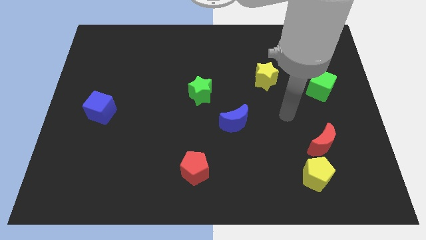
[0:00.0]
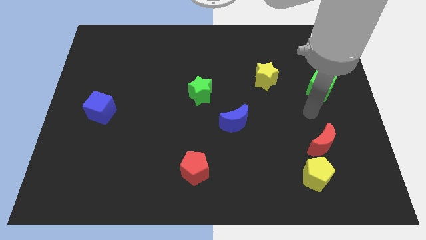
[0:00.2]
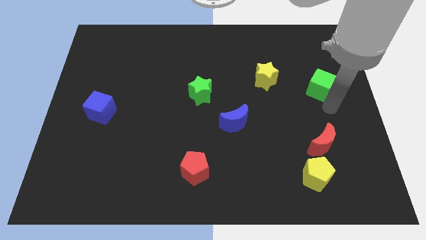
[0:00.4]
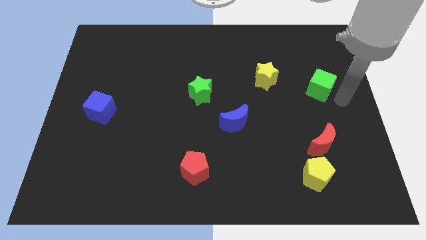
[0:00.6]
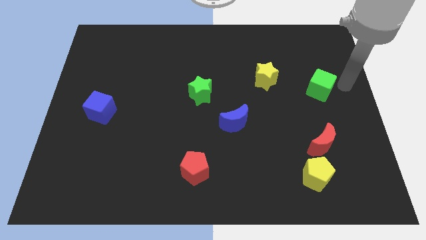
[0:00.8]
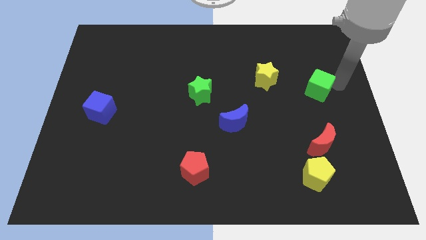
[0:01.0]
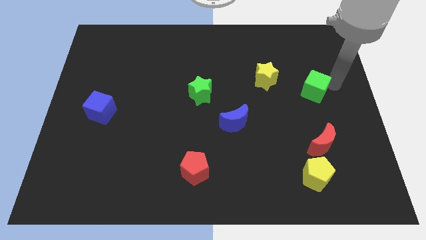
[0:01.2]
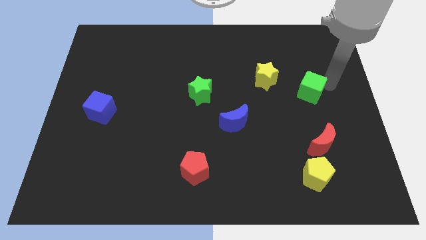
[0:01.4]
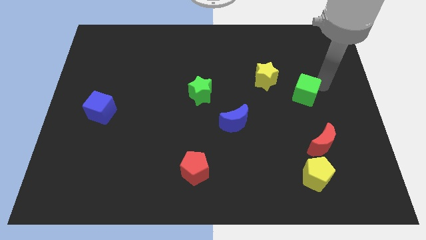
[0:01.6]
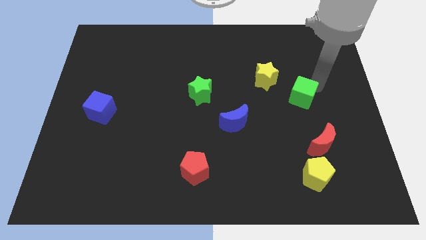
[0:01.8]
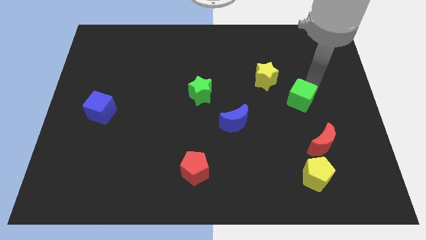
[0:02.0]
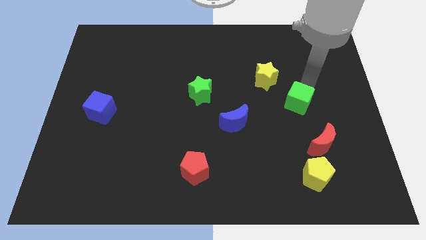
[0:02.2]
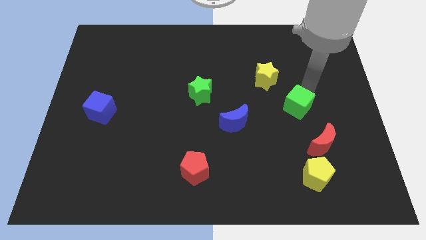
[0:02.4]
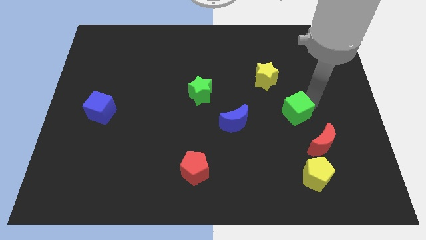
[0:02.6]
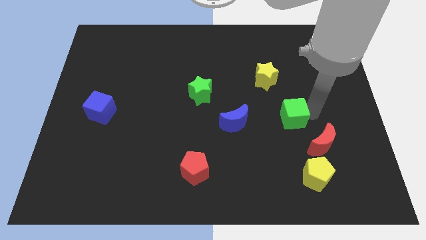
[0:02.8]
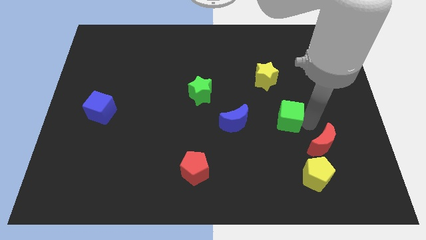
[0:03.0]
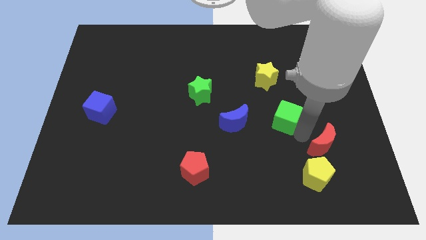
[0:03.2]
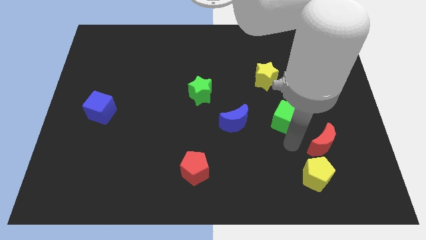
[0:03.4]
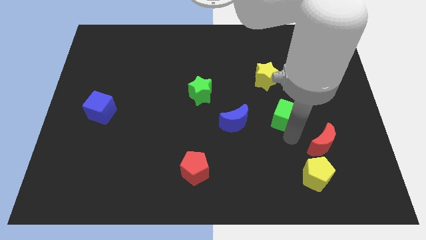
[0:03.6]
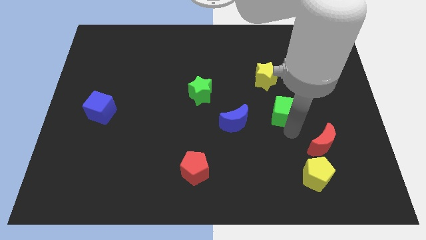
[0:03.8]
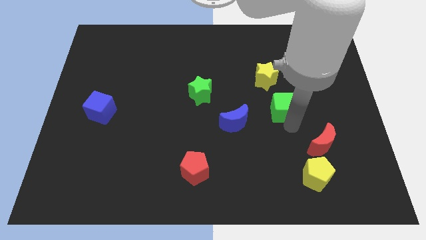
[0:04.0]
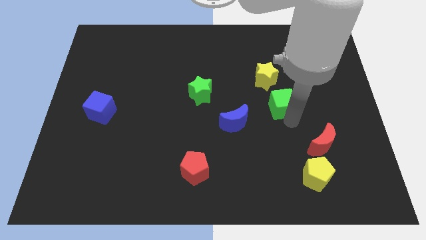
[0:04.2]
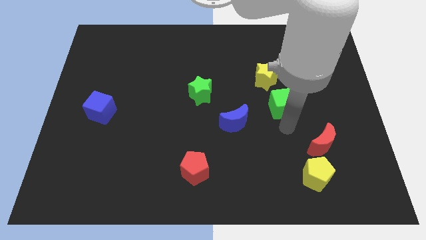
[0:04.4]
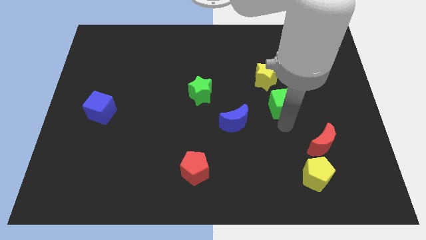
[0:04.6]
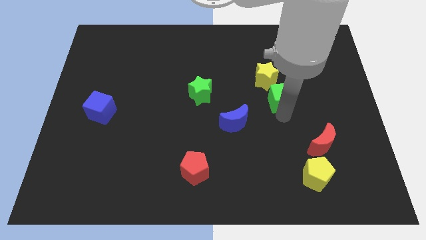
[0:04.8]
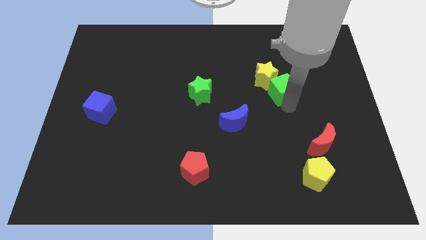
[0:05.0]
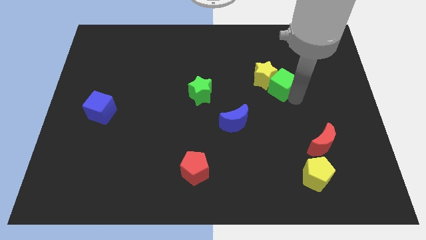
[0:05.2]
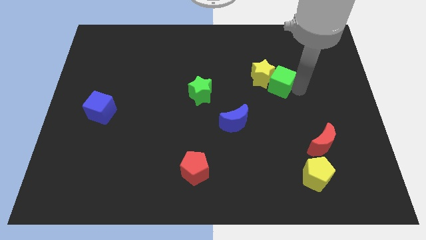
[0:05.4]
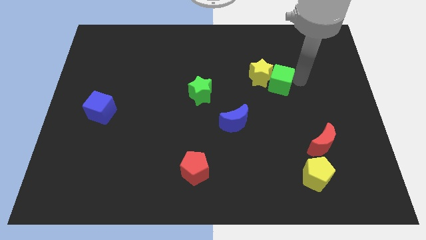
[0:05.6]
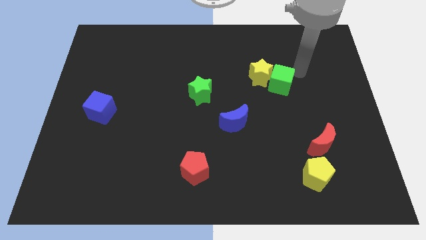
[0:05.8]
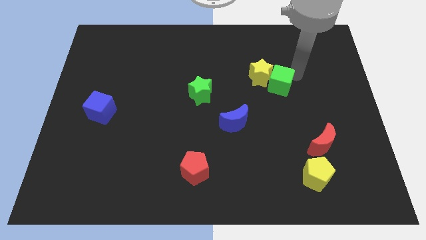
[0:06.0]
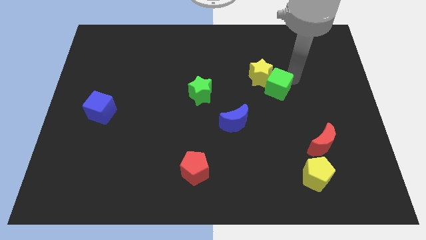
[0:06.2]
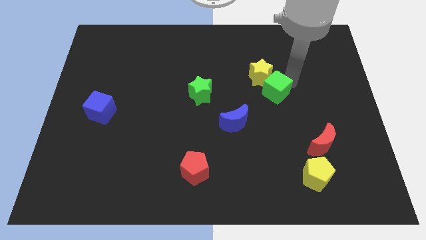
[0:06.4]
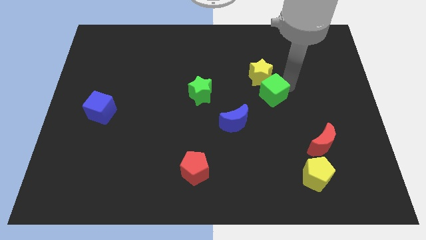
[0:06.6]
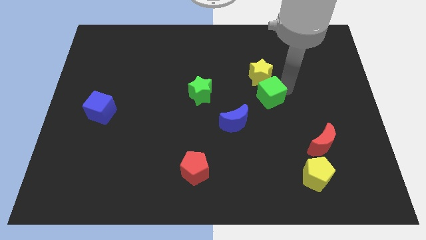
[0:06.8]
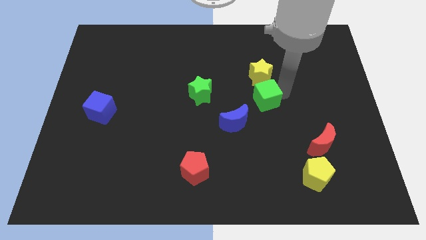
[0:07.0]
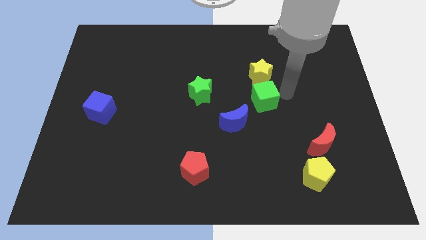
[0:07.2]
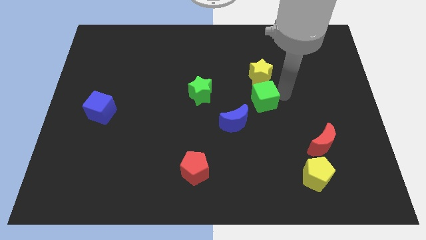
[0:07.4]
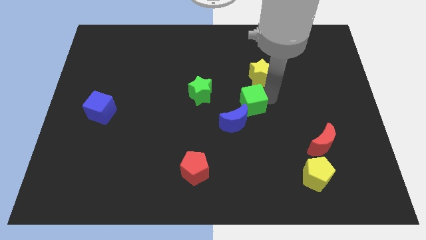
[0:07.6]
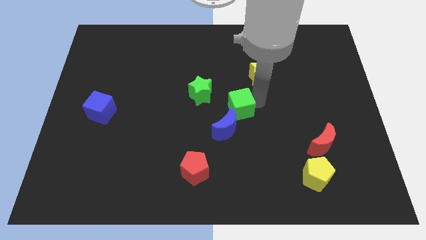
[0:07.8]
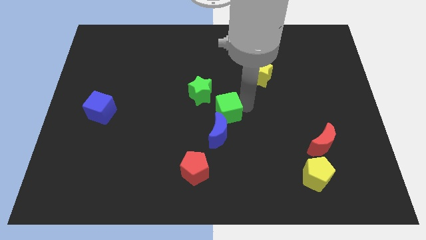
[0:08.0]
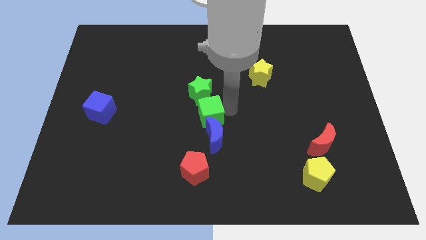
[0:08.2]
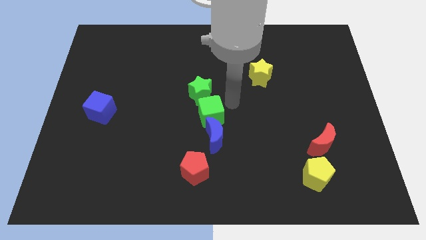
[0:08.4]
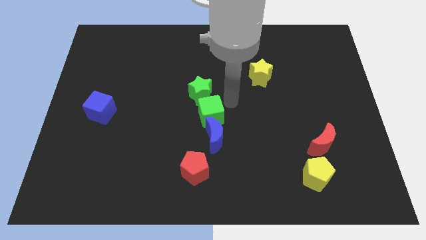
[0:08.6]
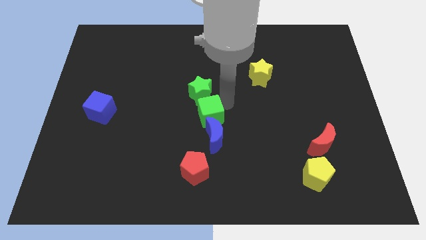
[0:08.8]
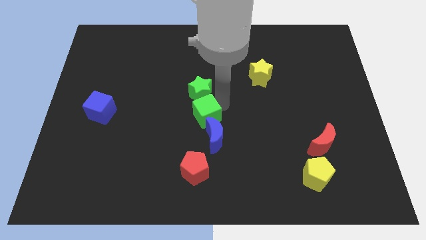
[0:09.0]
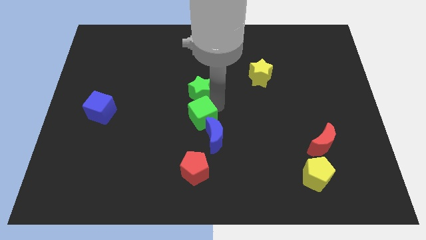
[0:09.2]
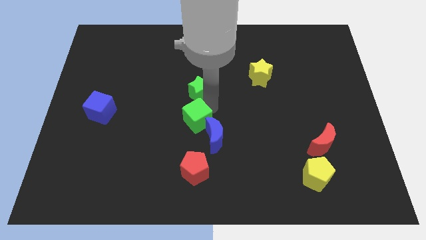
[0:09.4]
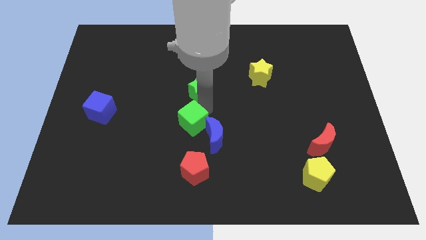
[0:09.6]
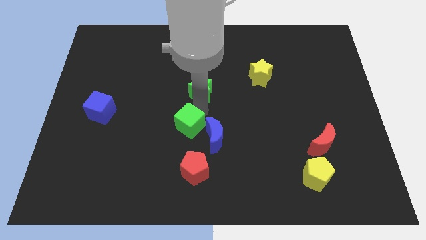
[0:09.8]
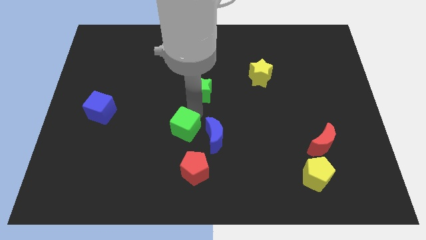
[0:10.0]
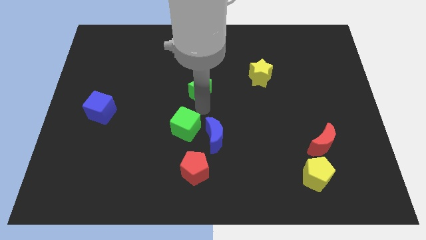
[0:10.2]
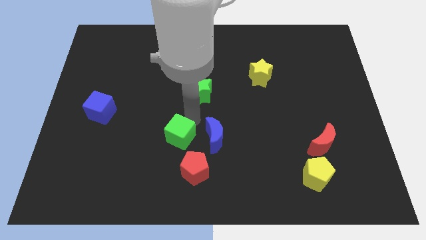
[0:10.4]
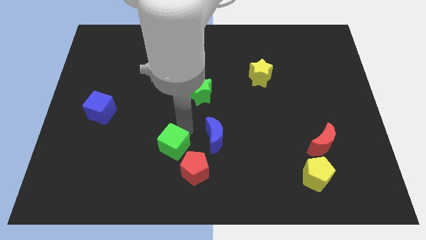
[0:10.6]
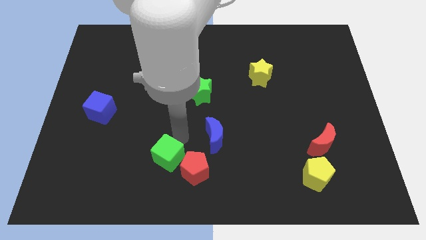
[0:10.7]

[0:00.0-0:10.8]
push the green cube left of the red pentagon

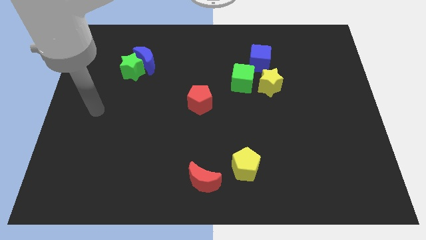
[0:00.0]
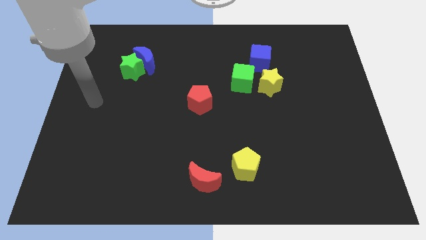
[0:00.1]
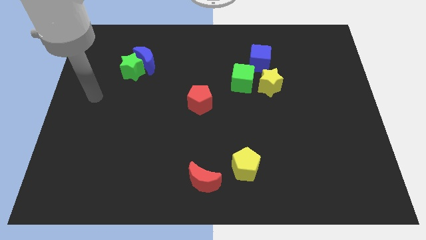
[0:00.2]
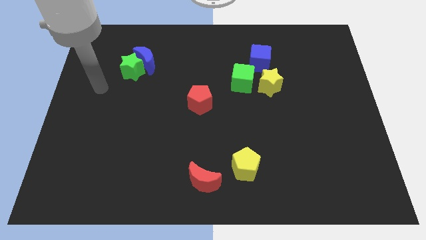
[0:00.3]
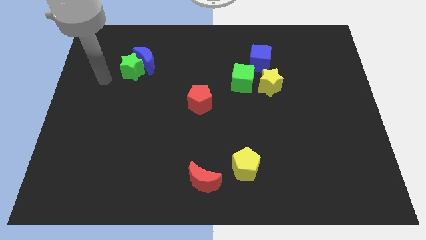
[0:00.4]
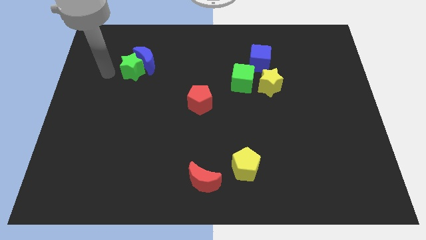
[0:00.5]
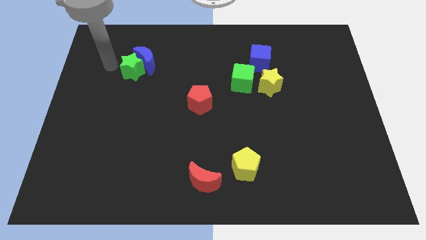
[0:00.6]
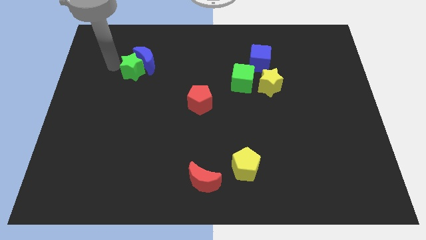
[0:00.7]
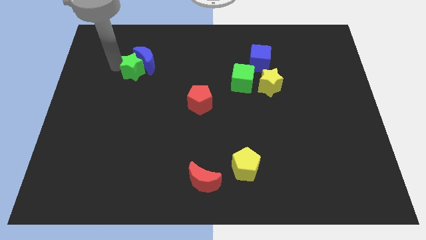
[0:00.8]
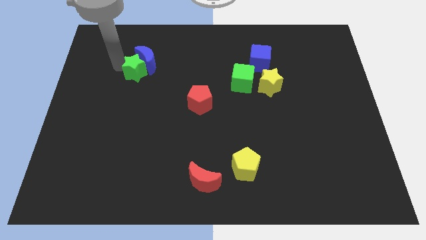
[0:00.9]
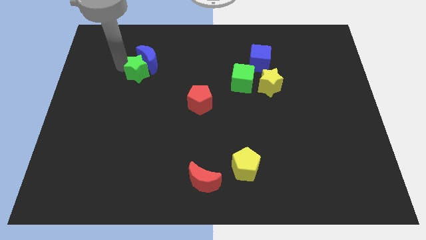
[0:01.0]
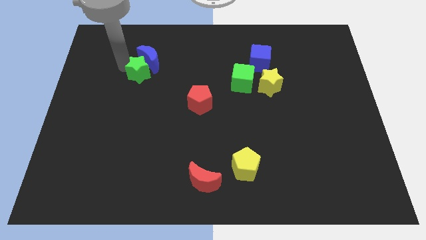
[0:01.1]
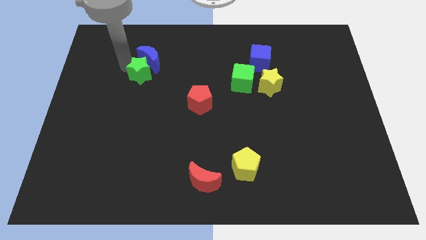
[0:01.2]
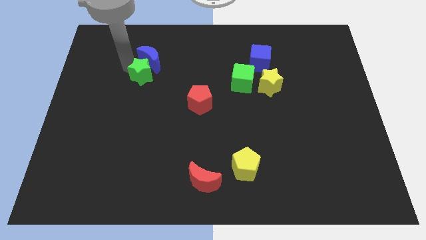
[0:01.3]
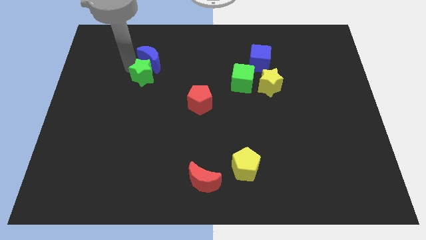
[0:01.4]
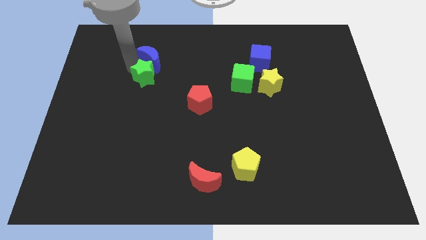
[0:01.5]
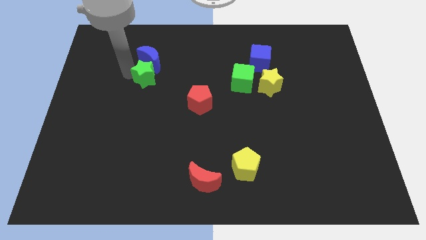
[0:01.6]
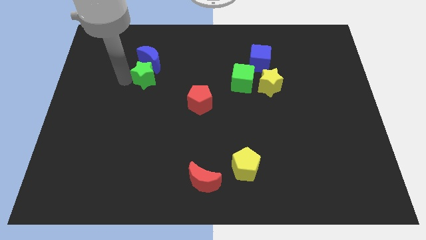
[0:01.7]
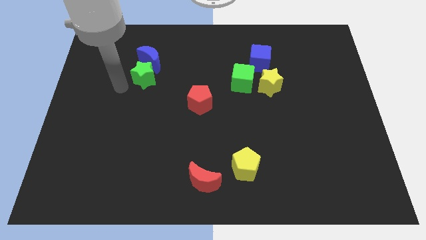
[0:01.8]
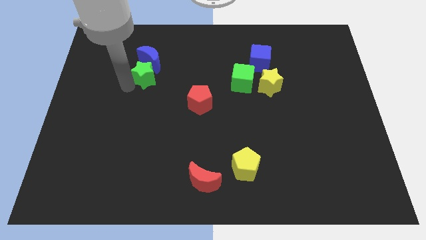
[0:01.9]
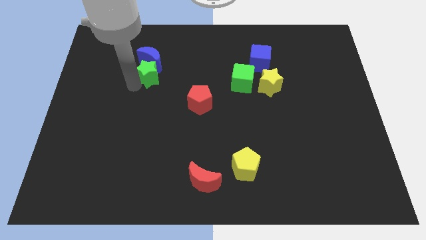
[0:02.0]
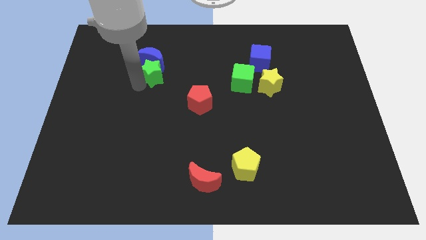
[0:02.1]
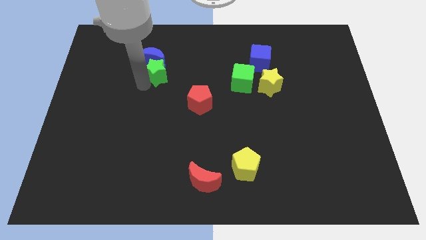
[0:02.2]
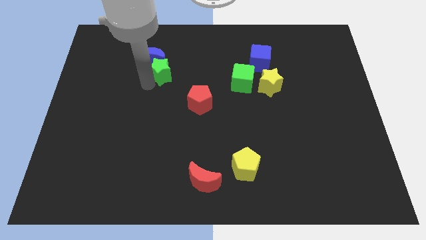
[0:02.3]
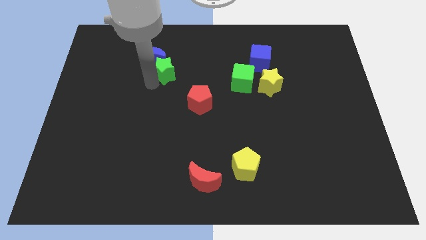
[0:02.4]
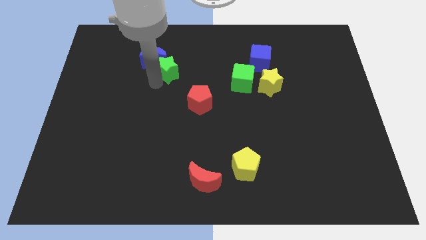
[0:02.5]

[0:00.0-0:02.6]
put the green star just right of the blue moon
